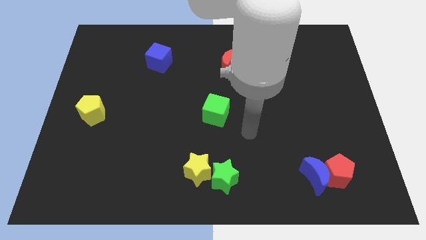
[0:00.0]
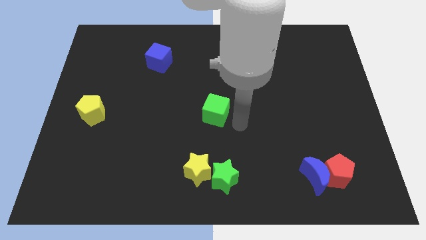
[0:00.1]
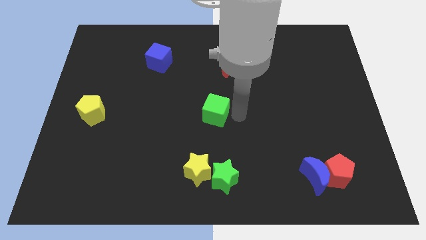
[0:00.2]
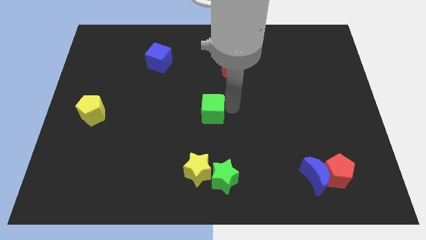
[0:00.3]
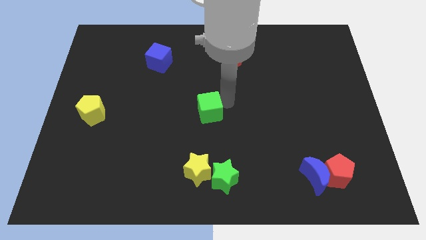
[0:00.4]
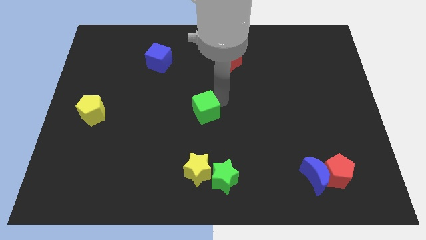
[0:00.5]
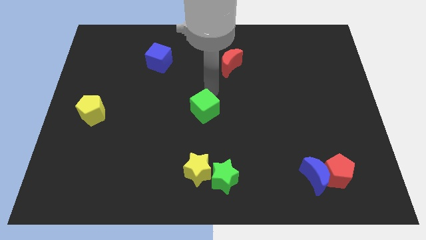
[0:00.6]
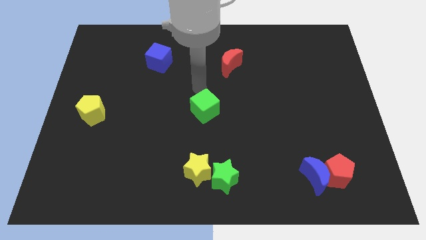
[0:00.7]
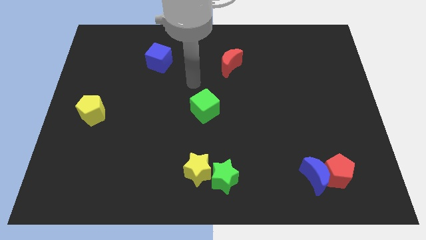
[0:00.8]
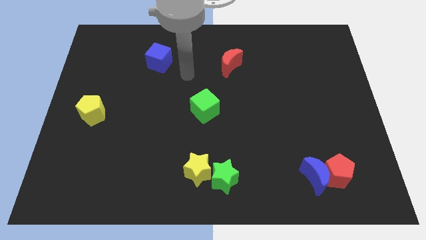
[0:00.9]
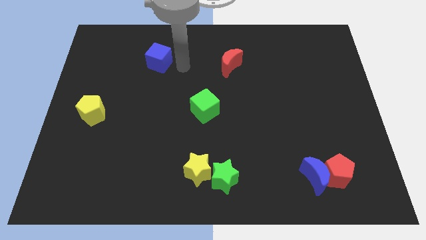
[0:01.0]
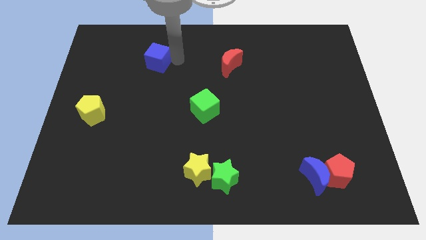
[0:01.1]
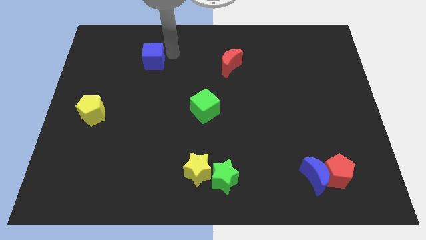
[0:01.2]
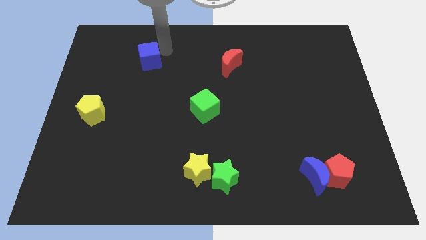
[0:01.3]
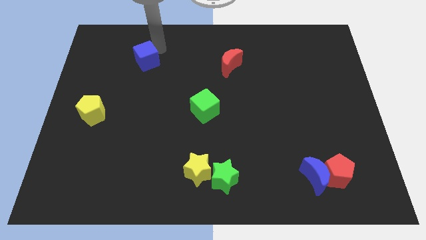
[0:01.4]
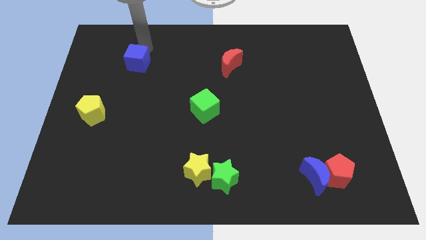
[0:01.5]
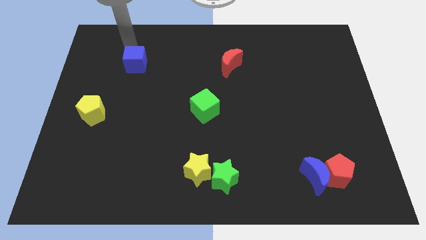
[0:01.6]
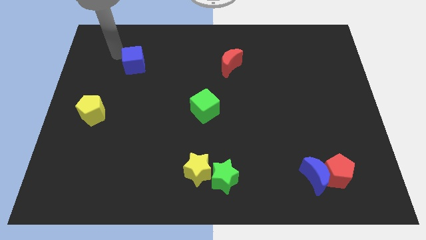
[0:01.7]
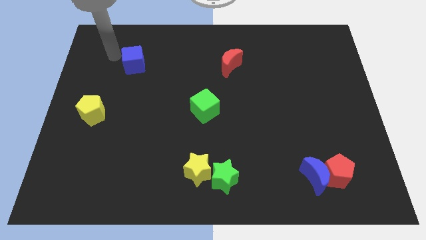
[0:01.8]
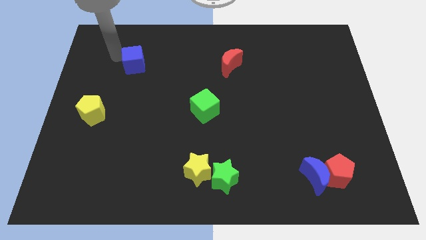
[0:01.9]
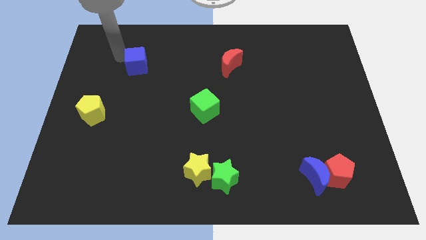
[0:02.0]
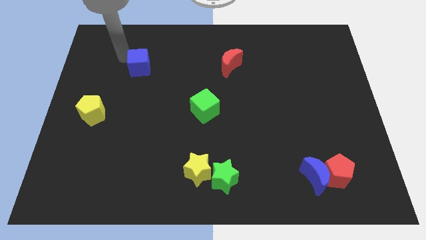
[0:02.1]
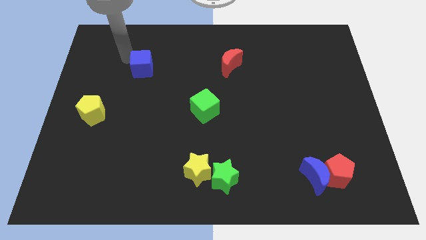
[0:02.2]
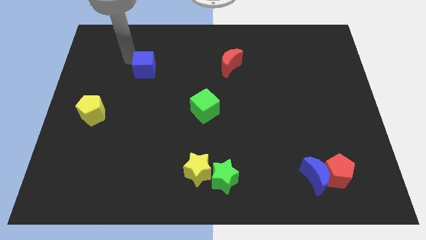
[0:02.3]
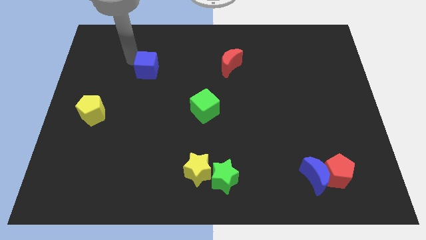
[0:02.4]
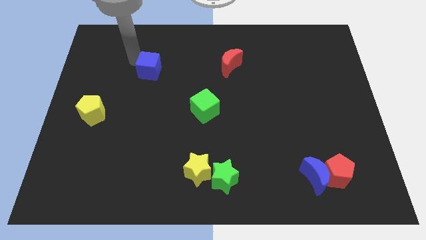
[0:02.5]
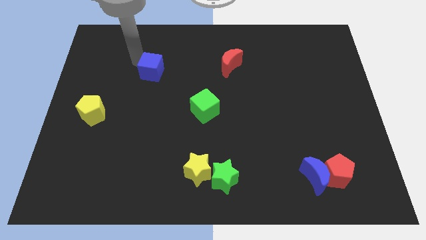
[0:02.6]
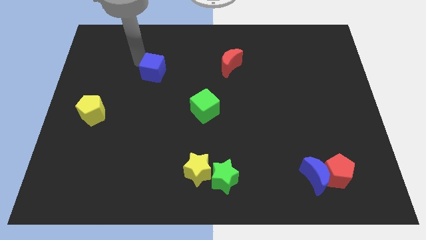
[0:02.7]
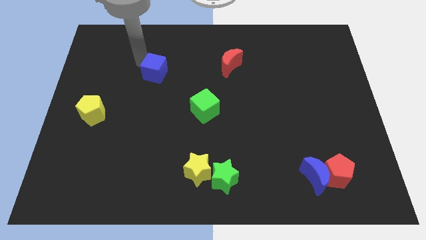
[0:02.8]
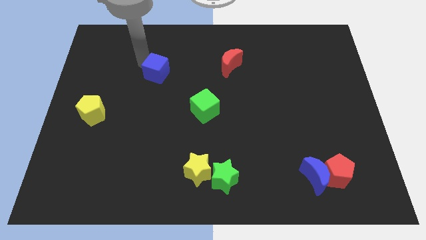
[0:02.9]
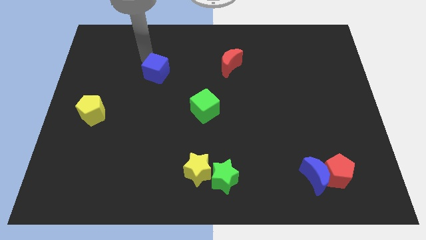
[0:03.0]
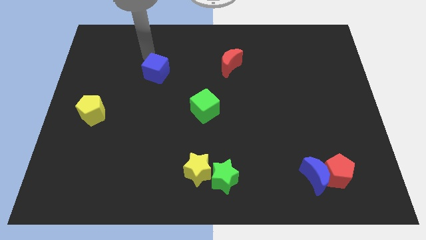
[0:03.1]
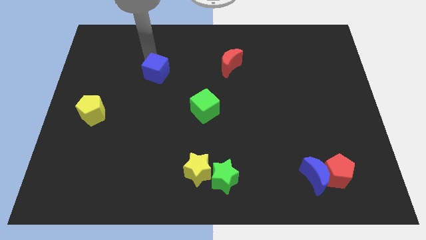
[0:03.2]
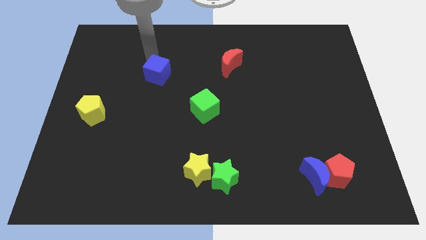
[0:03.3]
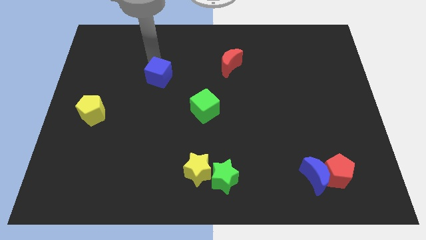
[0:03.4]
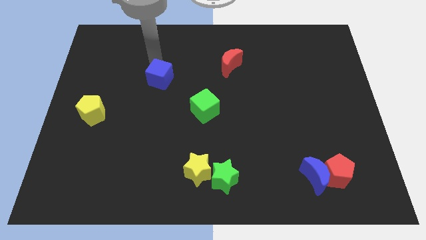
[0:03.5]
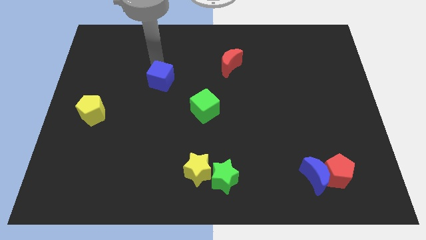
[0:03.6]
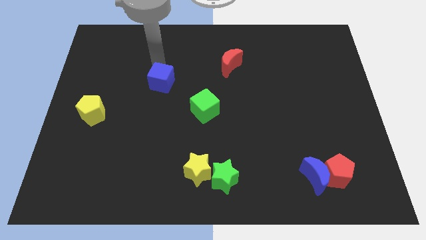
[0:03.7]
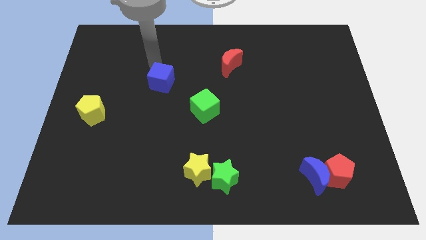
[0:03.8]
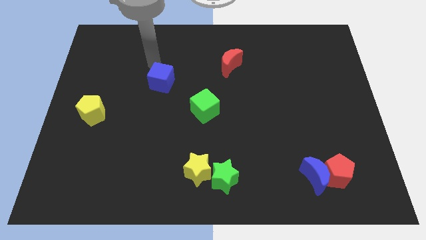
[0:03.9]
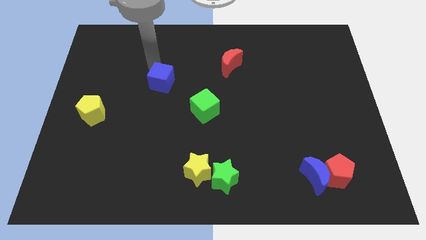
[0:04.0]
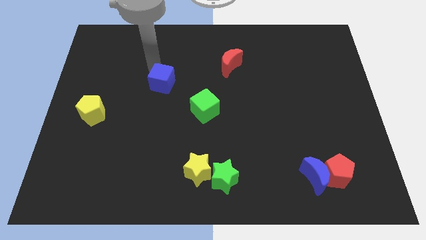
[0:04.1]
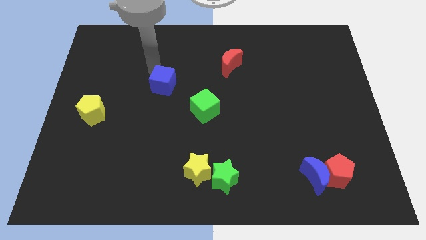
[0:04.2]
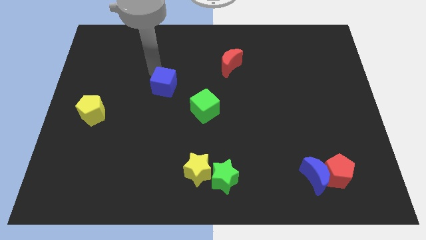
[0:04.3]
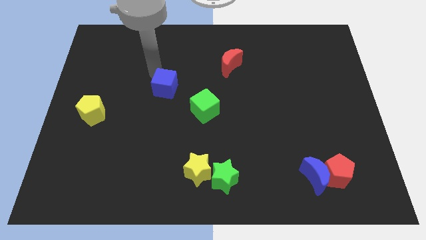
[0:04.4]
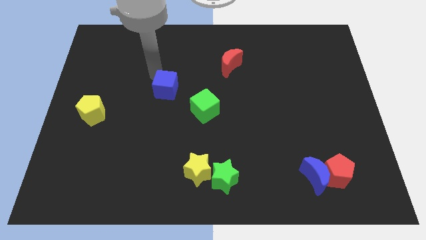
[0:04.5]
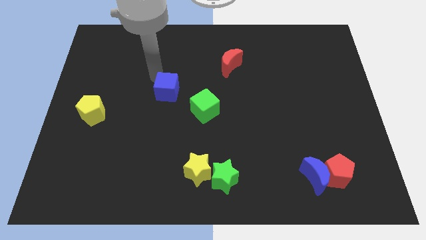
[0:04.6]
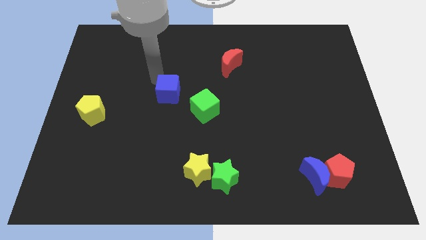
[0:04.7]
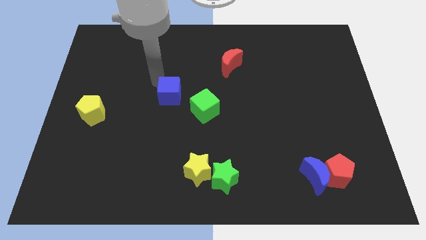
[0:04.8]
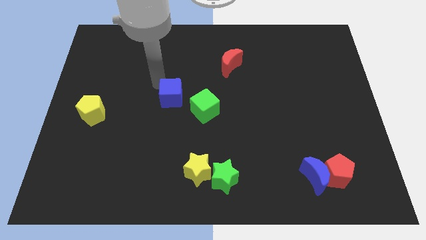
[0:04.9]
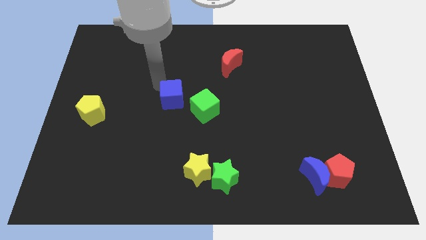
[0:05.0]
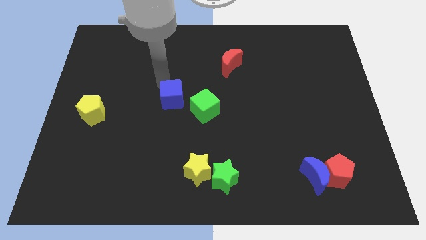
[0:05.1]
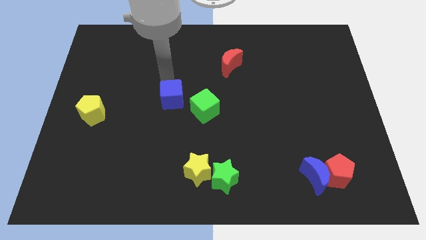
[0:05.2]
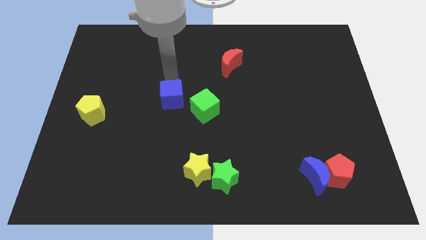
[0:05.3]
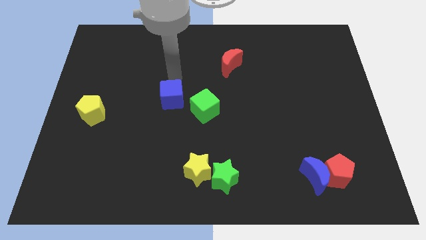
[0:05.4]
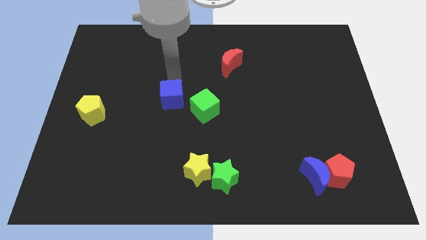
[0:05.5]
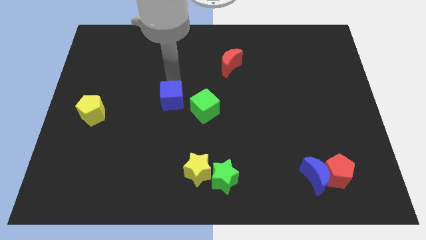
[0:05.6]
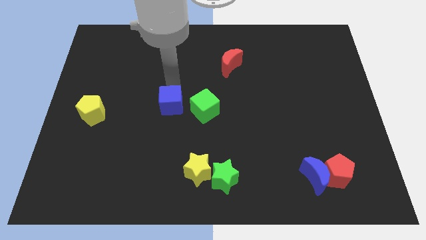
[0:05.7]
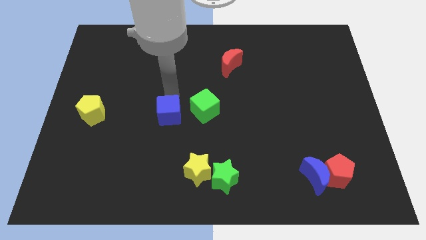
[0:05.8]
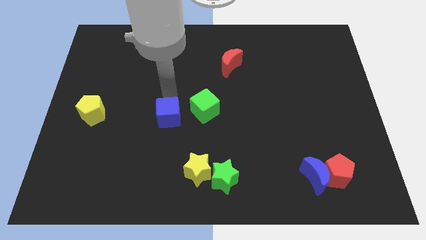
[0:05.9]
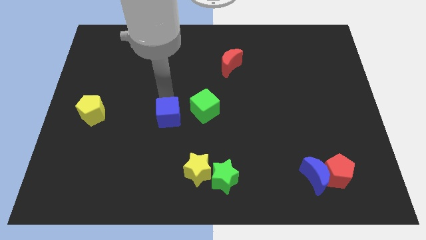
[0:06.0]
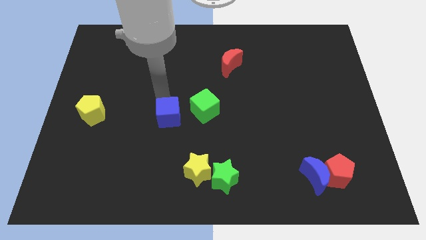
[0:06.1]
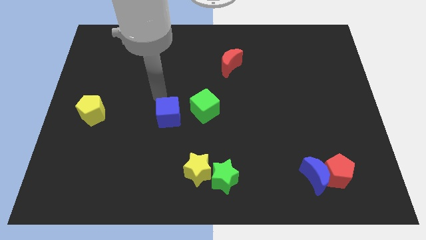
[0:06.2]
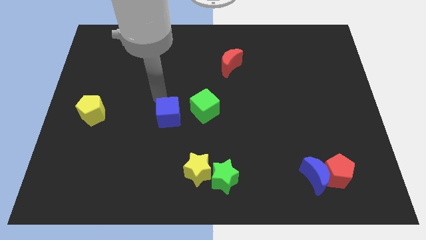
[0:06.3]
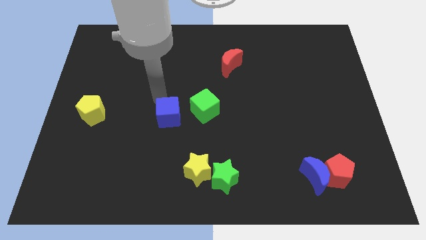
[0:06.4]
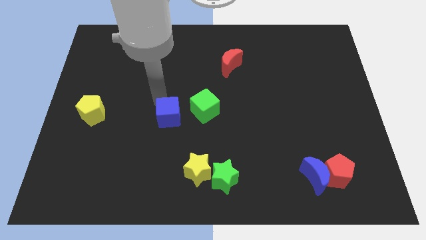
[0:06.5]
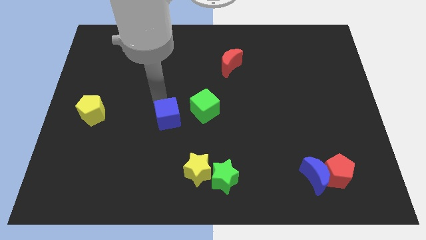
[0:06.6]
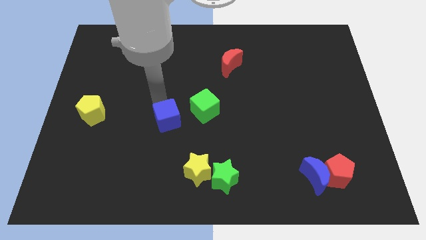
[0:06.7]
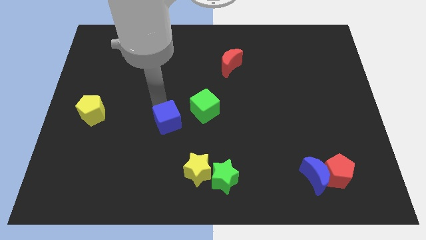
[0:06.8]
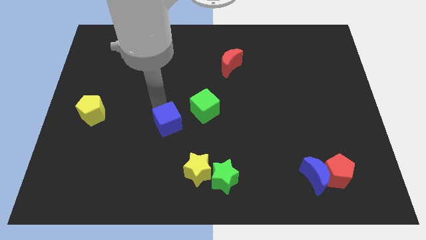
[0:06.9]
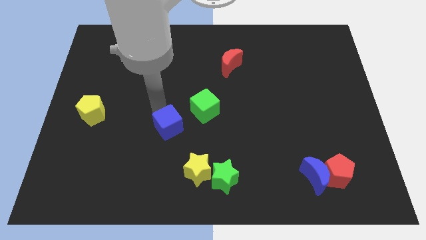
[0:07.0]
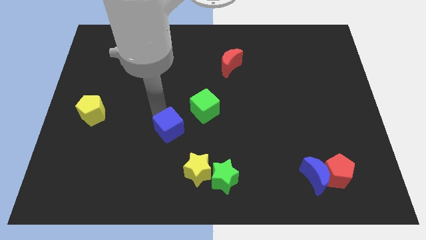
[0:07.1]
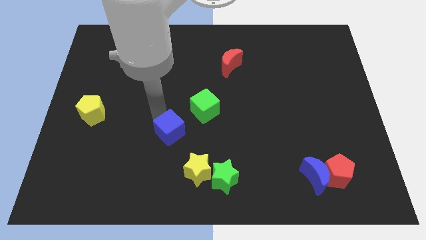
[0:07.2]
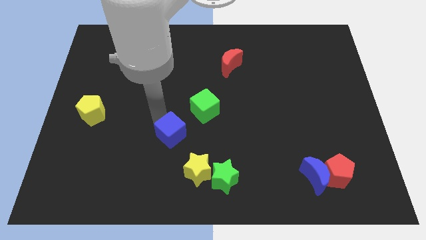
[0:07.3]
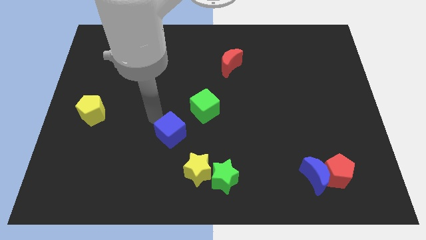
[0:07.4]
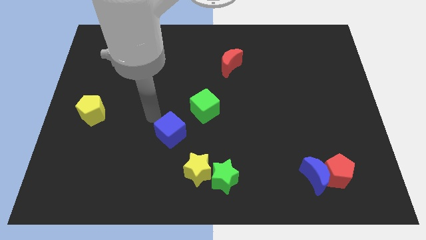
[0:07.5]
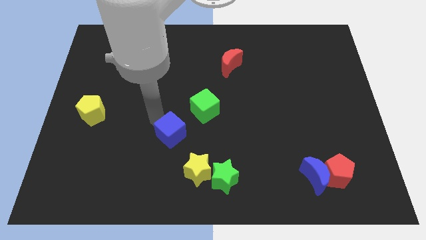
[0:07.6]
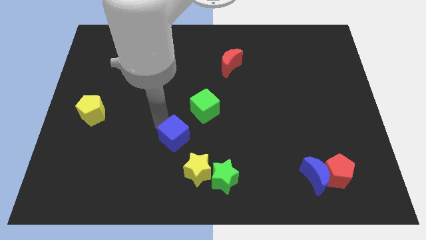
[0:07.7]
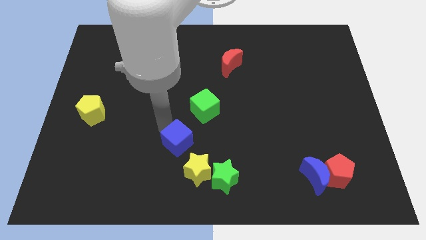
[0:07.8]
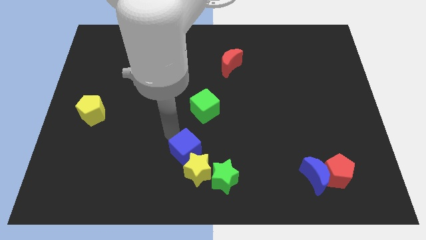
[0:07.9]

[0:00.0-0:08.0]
put the blue cube to the yellow star
